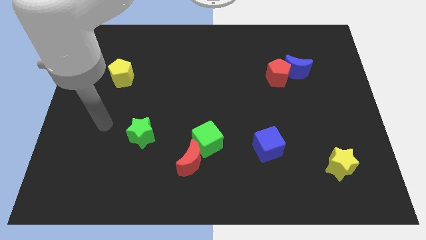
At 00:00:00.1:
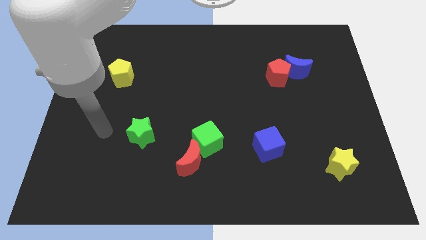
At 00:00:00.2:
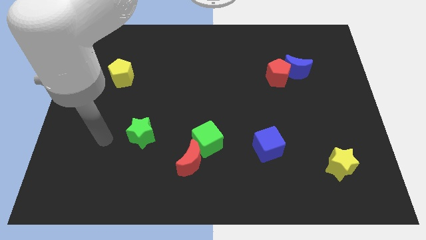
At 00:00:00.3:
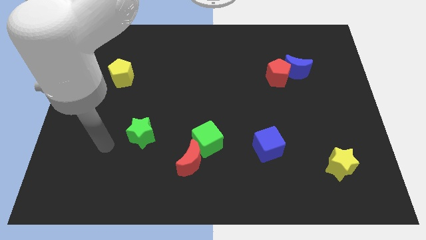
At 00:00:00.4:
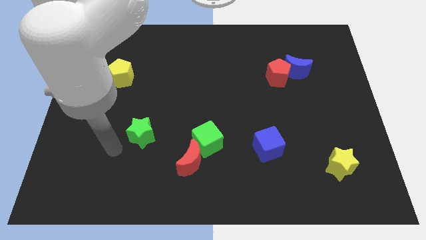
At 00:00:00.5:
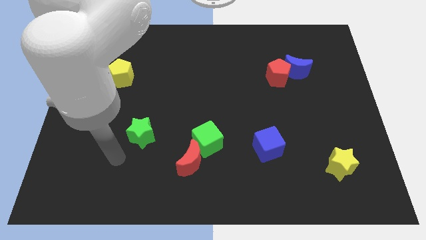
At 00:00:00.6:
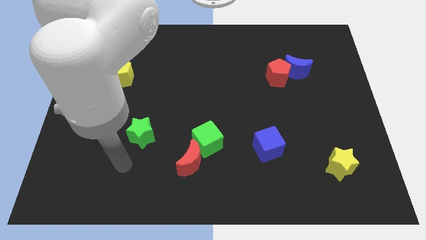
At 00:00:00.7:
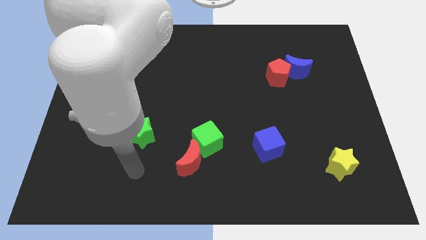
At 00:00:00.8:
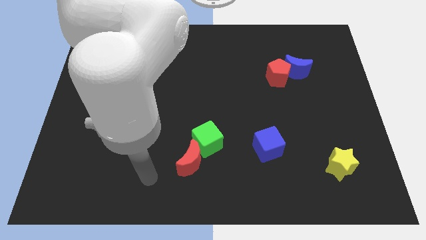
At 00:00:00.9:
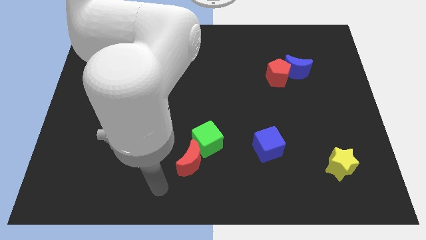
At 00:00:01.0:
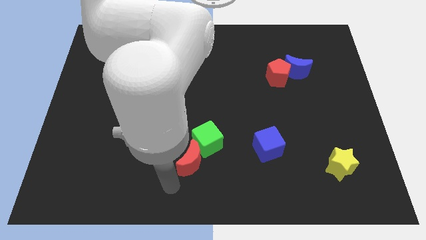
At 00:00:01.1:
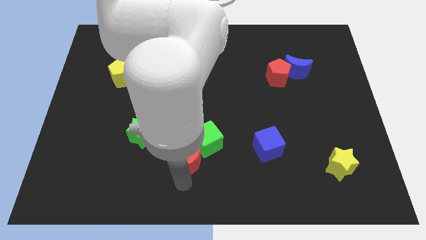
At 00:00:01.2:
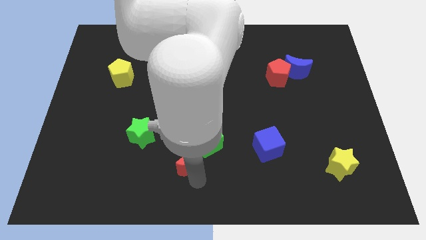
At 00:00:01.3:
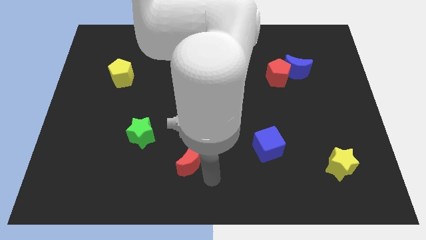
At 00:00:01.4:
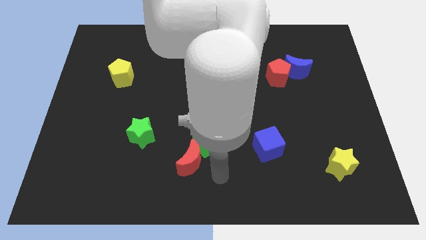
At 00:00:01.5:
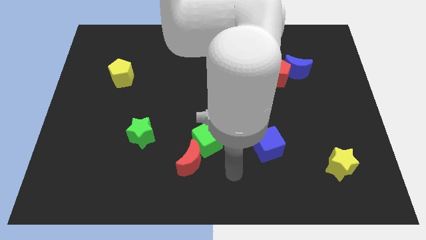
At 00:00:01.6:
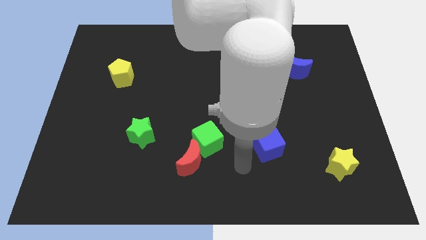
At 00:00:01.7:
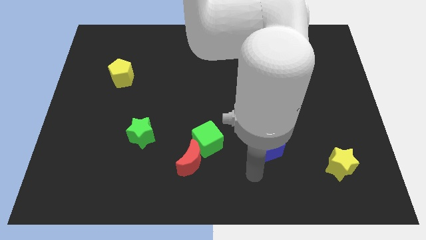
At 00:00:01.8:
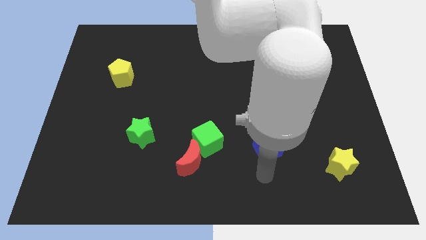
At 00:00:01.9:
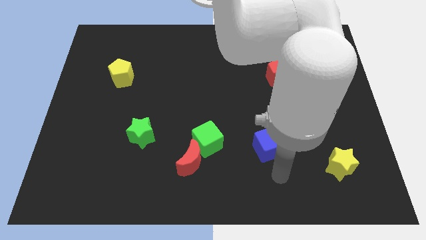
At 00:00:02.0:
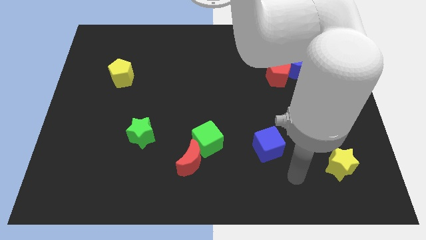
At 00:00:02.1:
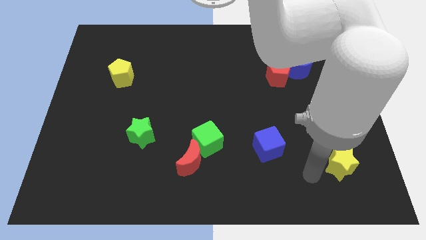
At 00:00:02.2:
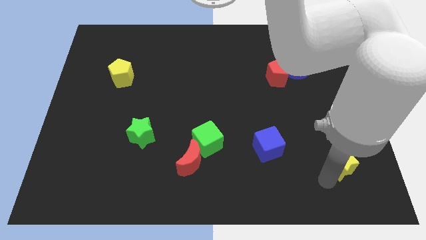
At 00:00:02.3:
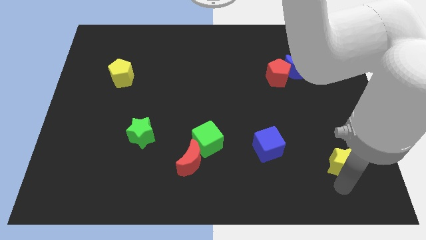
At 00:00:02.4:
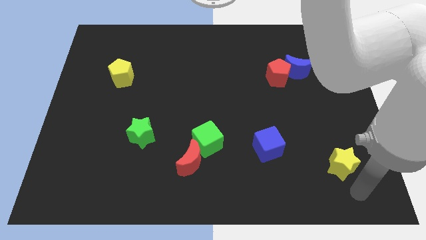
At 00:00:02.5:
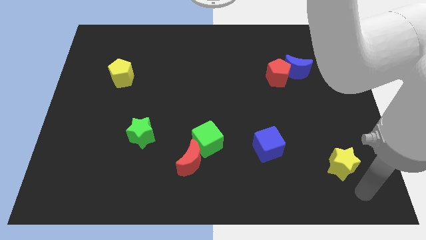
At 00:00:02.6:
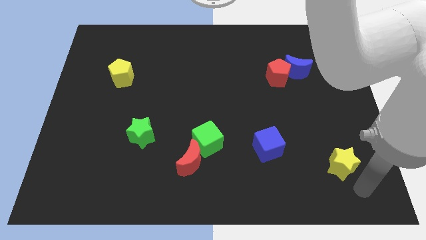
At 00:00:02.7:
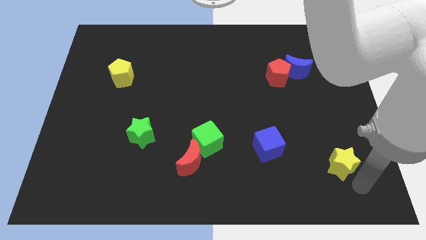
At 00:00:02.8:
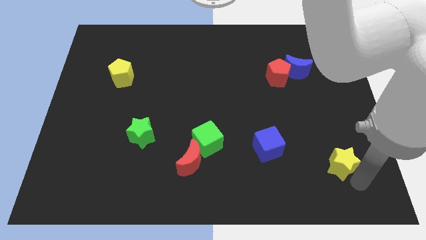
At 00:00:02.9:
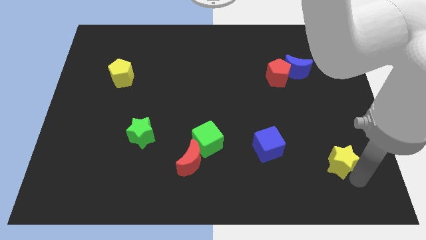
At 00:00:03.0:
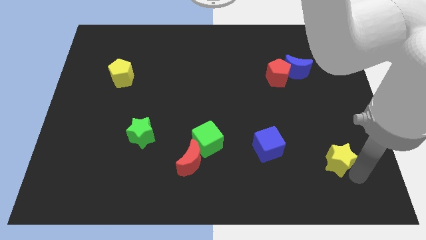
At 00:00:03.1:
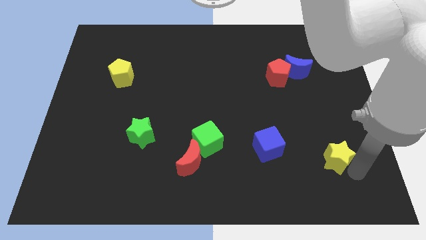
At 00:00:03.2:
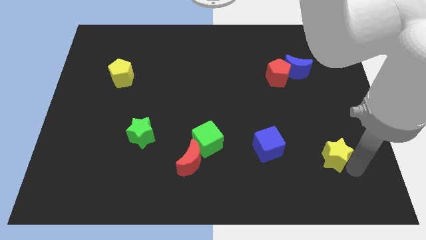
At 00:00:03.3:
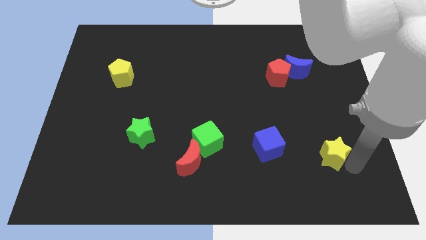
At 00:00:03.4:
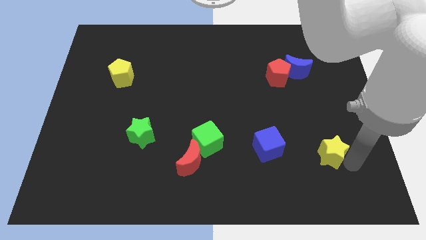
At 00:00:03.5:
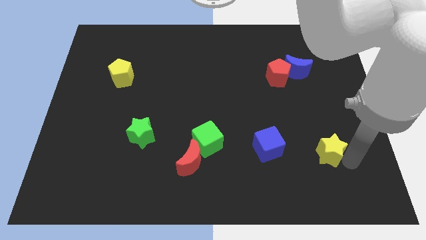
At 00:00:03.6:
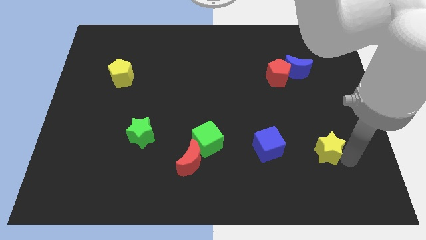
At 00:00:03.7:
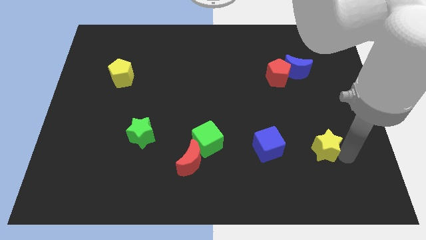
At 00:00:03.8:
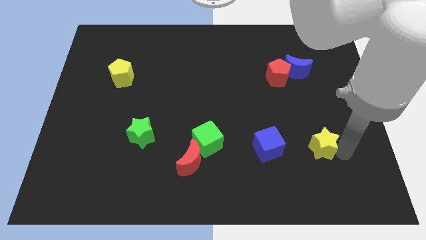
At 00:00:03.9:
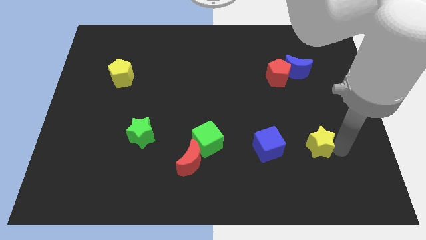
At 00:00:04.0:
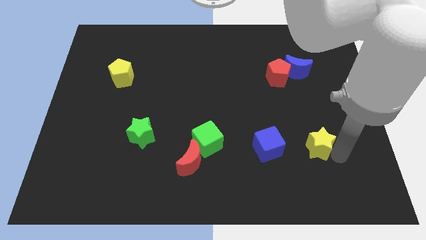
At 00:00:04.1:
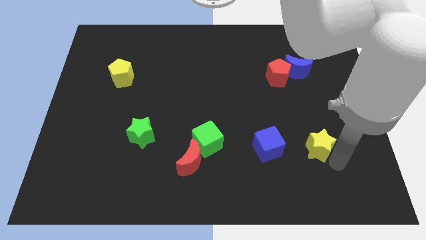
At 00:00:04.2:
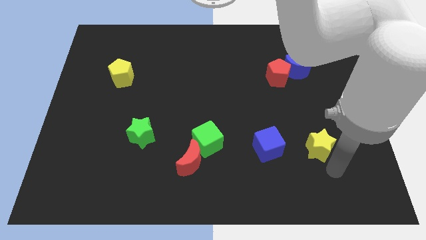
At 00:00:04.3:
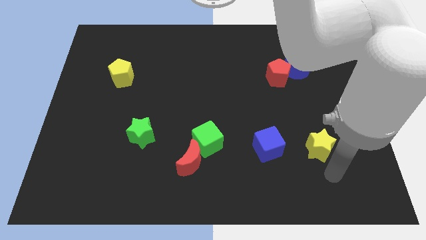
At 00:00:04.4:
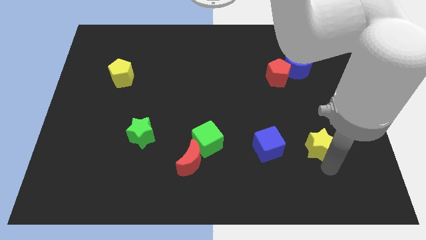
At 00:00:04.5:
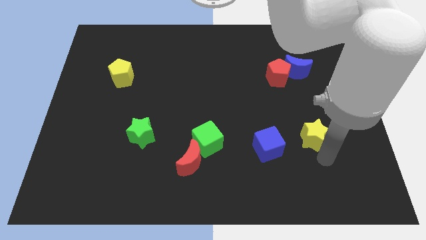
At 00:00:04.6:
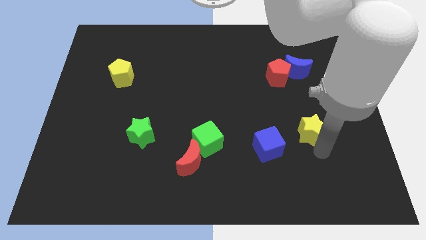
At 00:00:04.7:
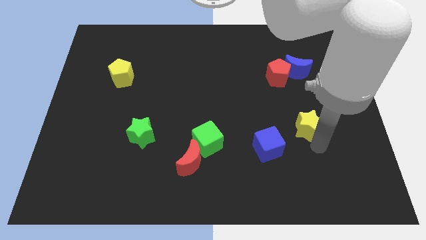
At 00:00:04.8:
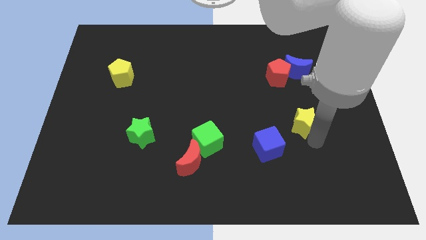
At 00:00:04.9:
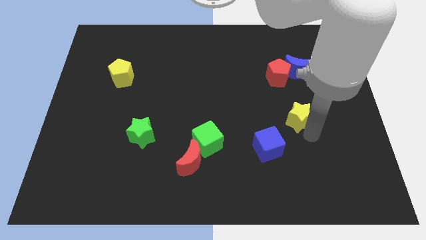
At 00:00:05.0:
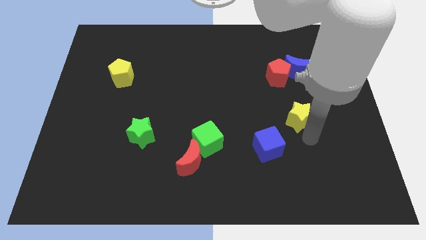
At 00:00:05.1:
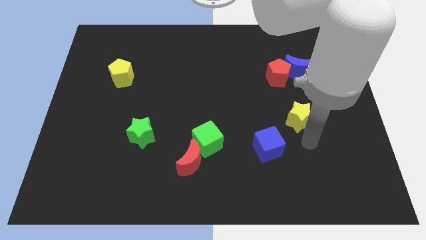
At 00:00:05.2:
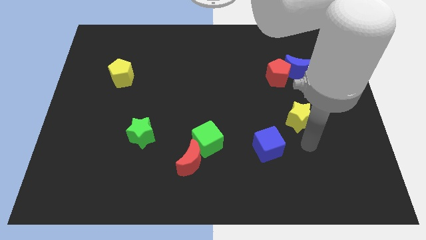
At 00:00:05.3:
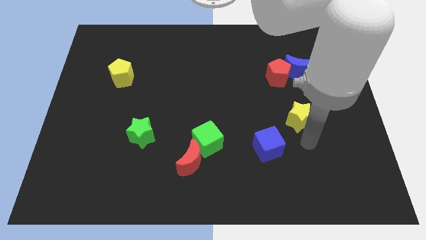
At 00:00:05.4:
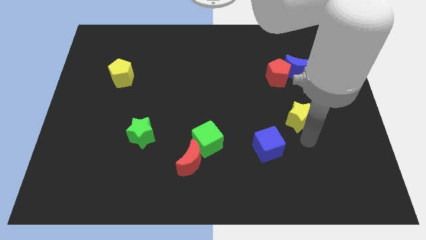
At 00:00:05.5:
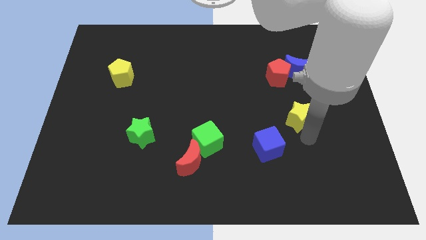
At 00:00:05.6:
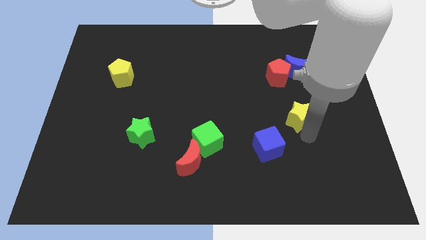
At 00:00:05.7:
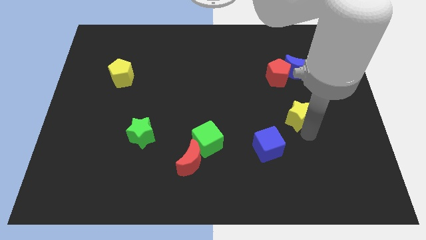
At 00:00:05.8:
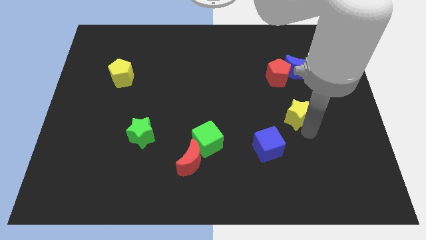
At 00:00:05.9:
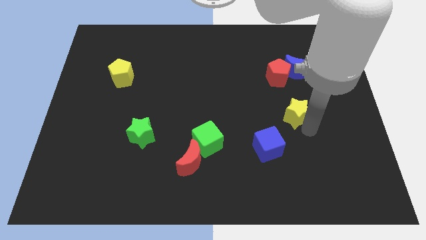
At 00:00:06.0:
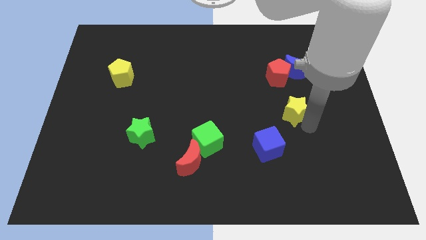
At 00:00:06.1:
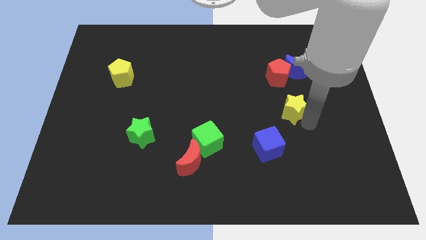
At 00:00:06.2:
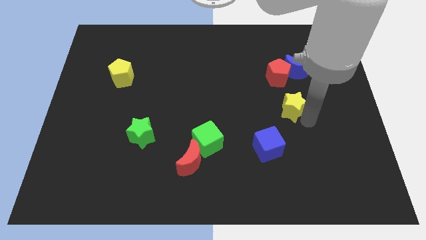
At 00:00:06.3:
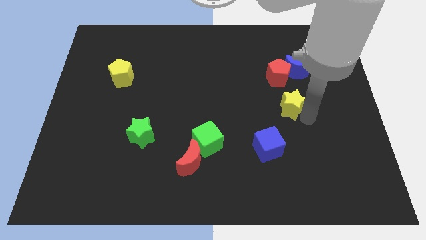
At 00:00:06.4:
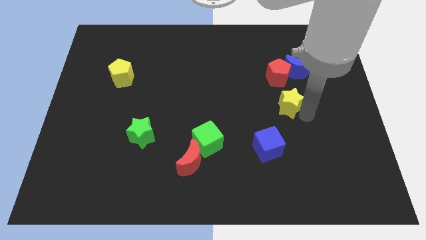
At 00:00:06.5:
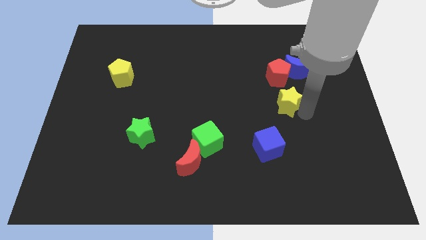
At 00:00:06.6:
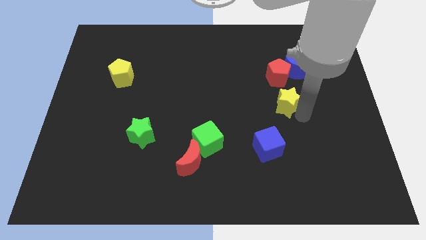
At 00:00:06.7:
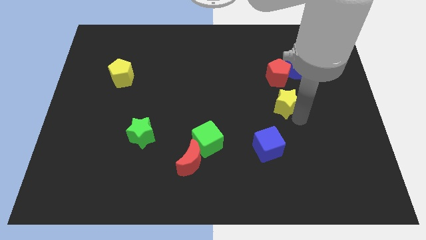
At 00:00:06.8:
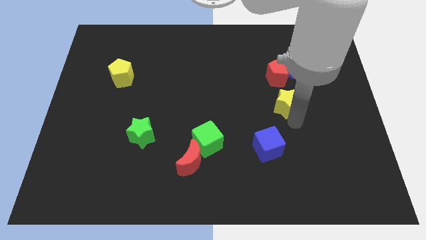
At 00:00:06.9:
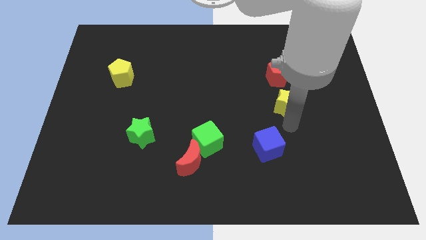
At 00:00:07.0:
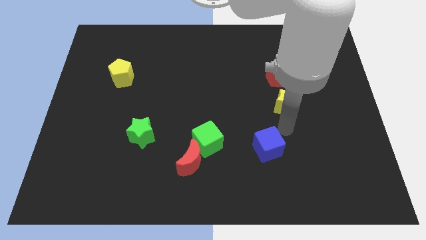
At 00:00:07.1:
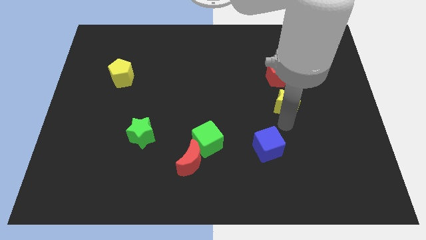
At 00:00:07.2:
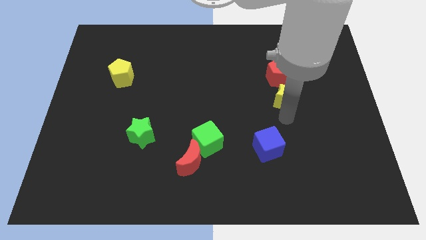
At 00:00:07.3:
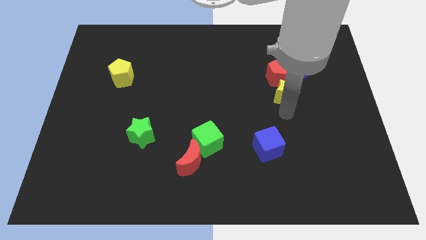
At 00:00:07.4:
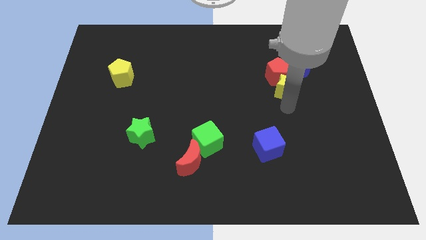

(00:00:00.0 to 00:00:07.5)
slide the yellow star close to the red pentagon
